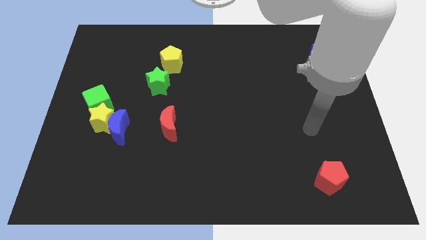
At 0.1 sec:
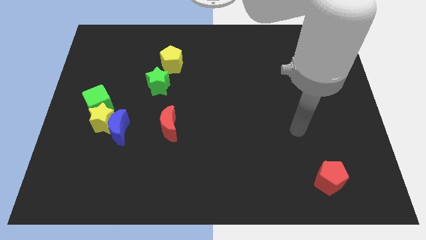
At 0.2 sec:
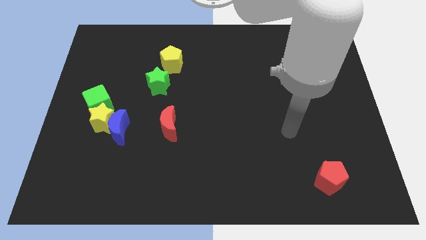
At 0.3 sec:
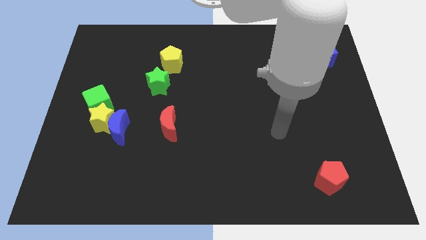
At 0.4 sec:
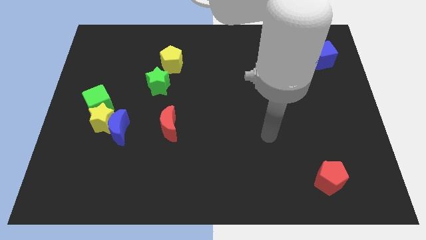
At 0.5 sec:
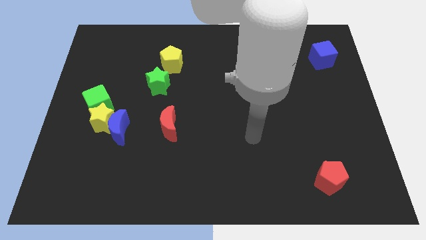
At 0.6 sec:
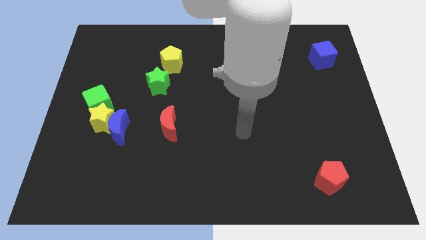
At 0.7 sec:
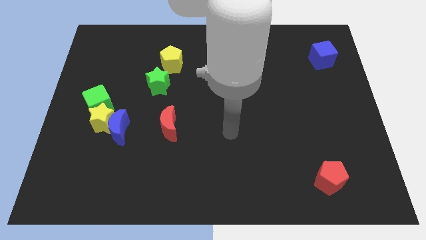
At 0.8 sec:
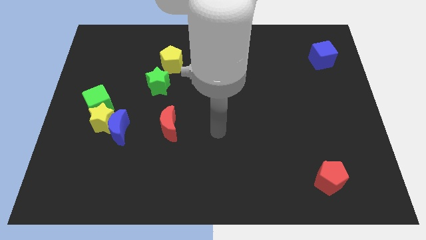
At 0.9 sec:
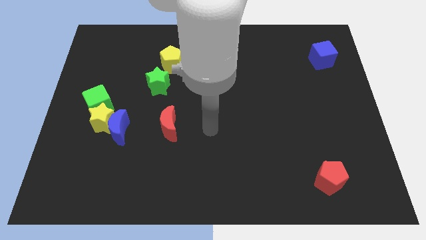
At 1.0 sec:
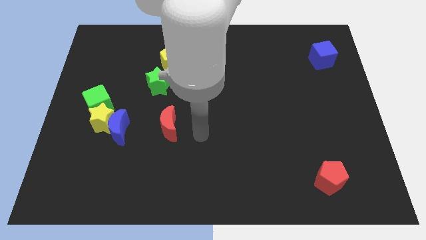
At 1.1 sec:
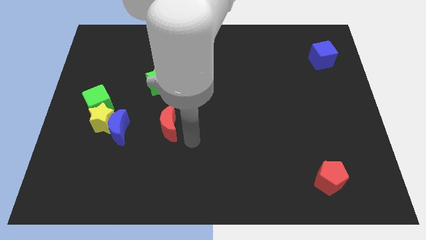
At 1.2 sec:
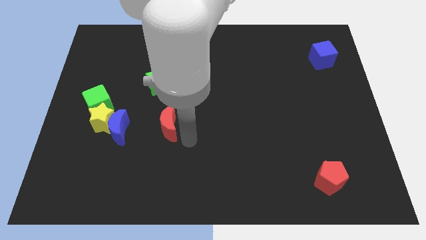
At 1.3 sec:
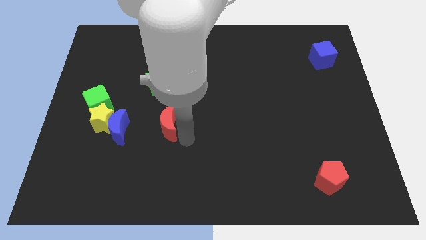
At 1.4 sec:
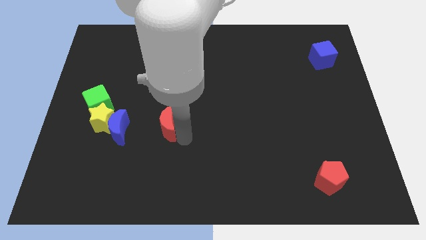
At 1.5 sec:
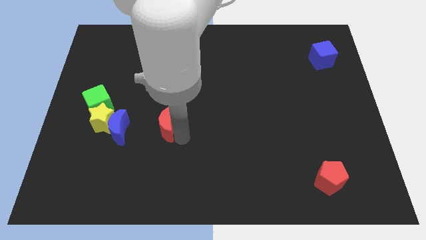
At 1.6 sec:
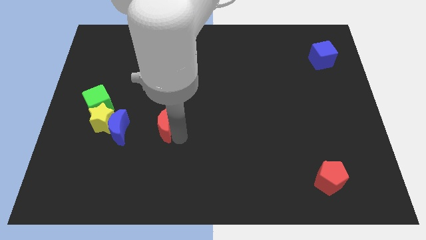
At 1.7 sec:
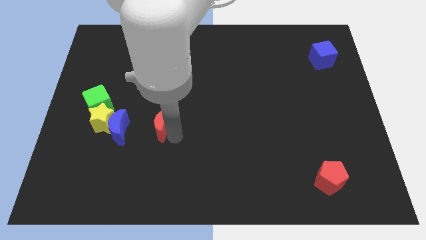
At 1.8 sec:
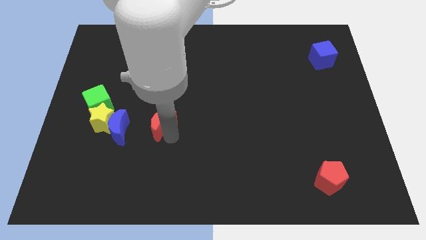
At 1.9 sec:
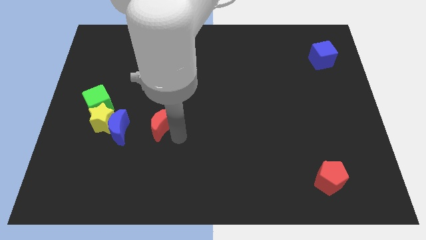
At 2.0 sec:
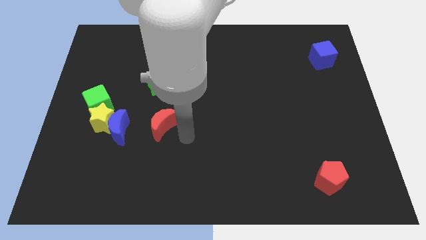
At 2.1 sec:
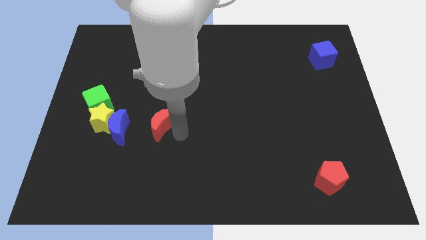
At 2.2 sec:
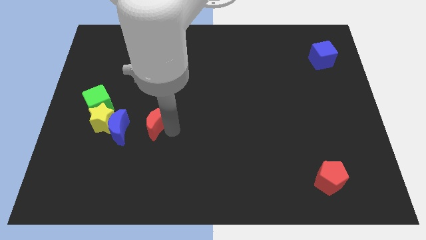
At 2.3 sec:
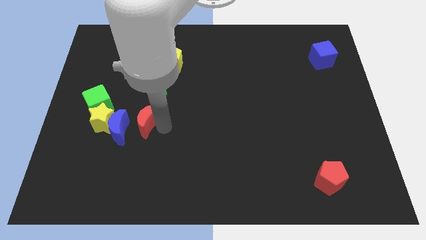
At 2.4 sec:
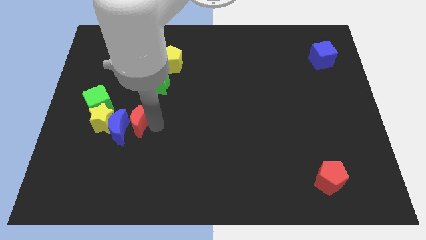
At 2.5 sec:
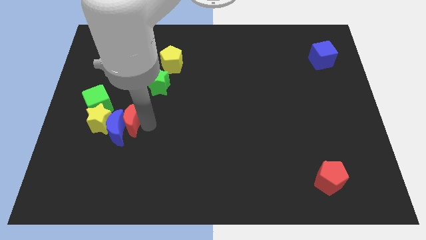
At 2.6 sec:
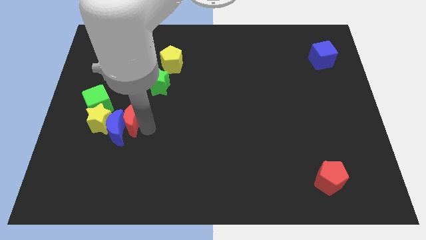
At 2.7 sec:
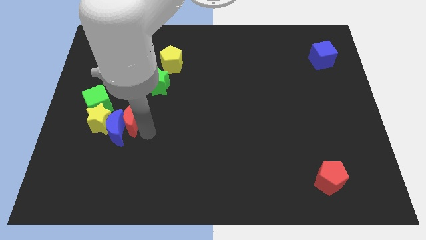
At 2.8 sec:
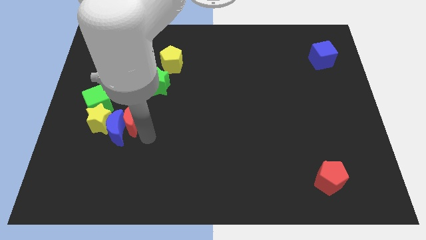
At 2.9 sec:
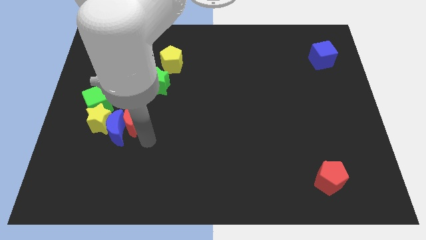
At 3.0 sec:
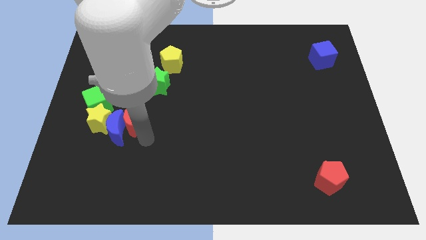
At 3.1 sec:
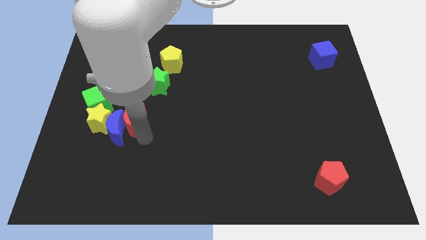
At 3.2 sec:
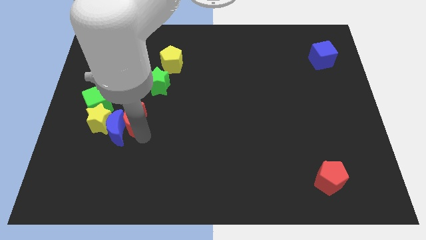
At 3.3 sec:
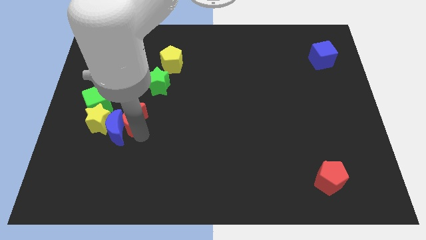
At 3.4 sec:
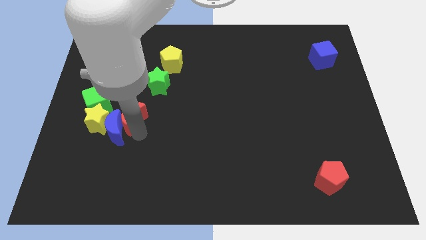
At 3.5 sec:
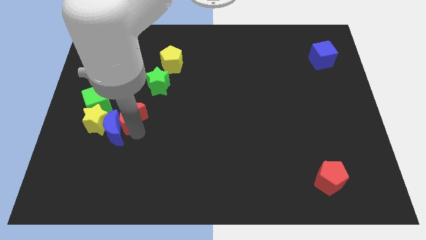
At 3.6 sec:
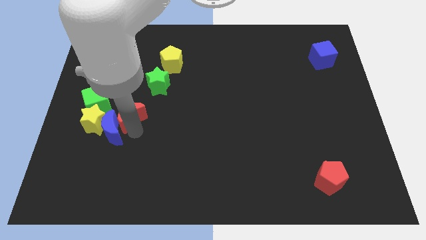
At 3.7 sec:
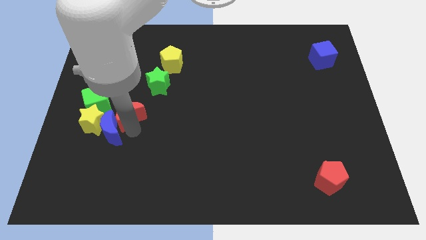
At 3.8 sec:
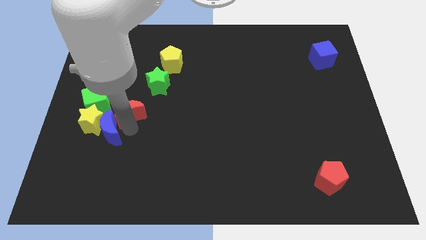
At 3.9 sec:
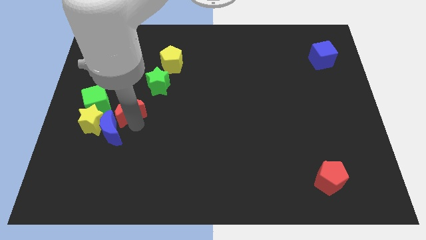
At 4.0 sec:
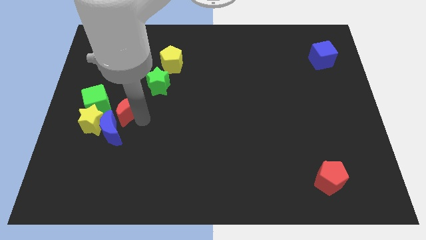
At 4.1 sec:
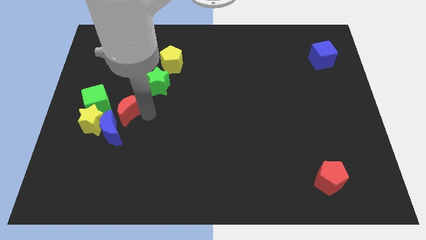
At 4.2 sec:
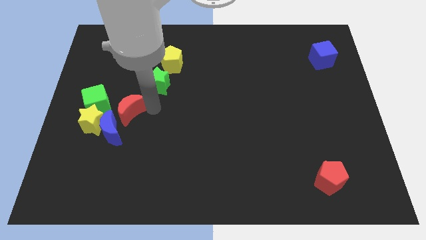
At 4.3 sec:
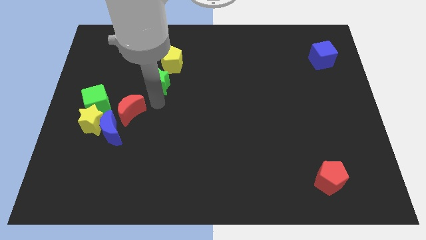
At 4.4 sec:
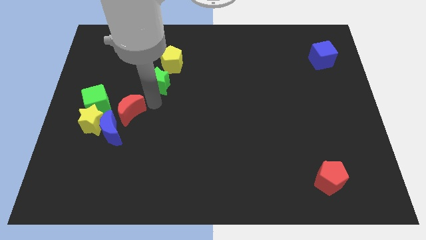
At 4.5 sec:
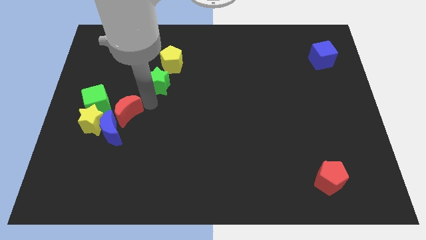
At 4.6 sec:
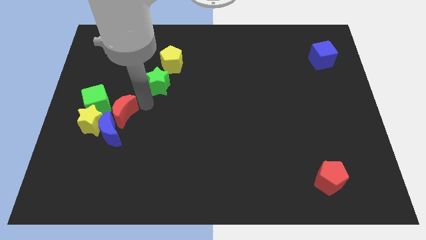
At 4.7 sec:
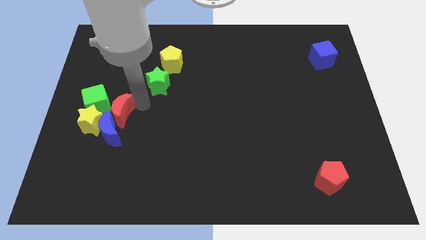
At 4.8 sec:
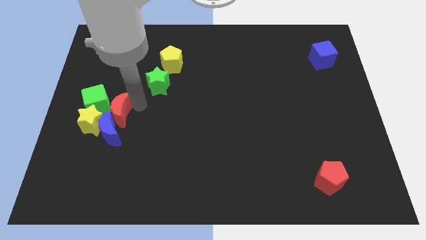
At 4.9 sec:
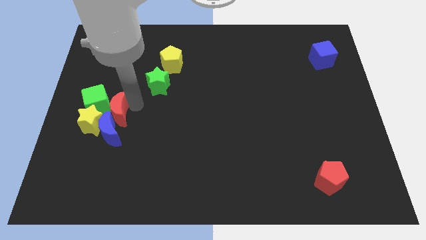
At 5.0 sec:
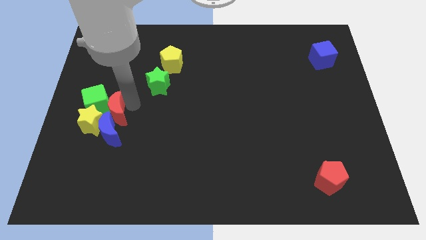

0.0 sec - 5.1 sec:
slide the red moon next to the yellow star

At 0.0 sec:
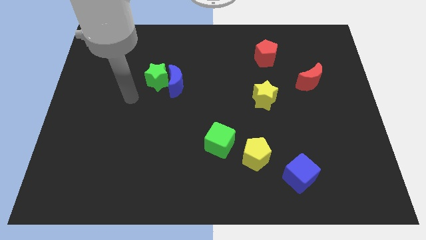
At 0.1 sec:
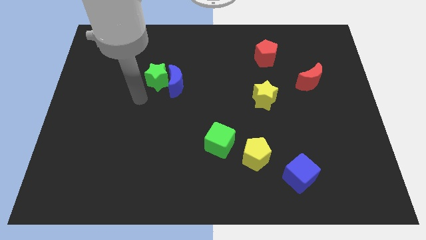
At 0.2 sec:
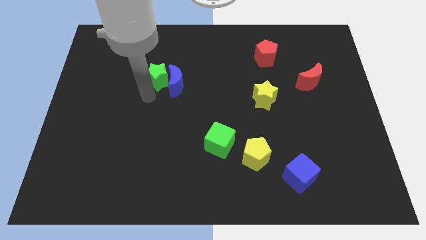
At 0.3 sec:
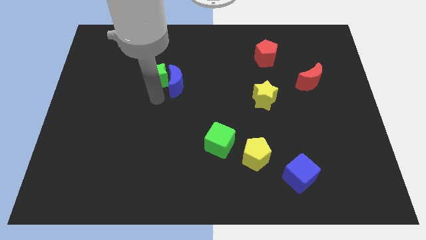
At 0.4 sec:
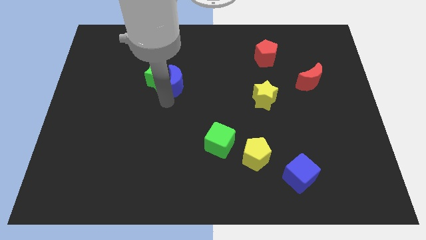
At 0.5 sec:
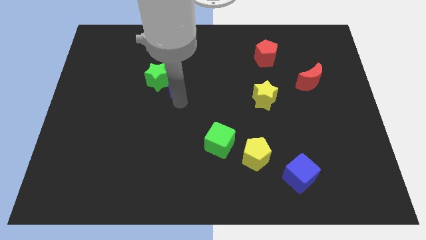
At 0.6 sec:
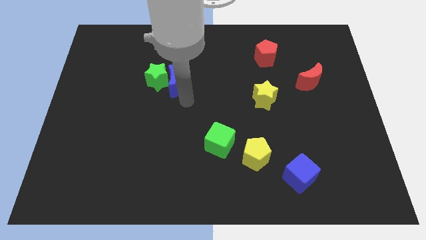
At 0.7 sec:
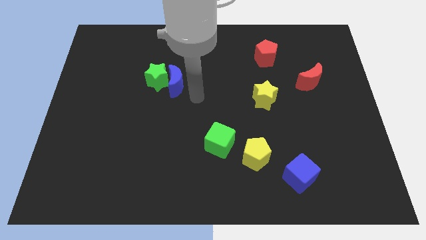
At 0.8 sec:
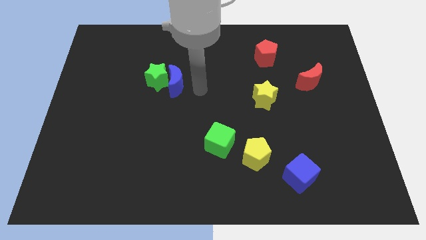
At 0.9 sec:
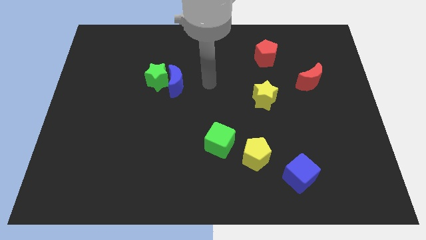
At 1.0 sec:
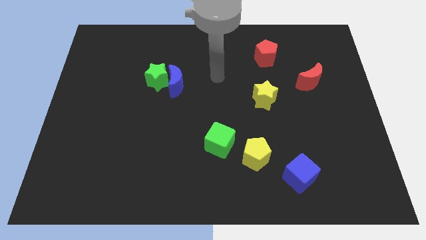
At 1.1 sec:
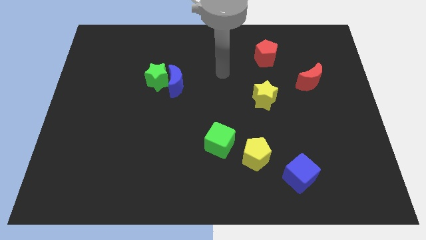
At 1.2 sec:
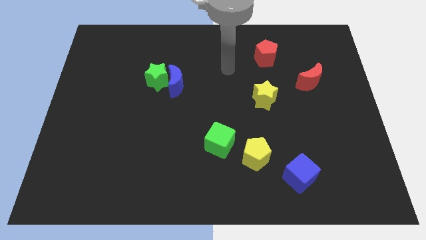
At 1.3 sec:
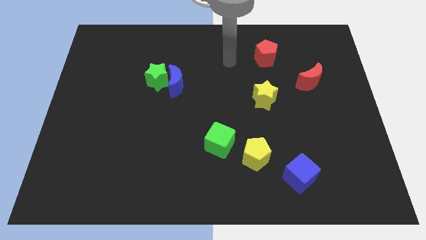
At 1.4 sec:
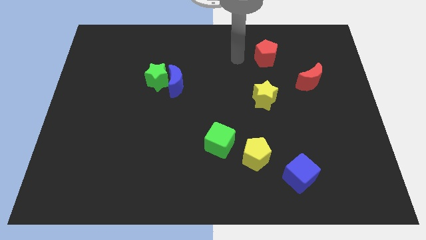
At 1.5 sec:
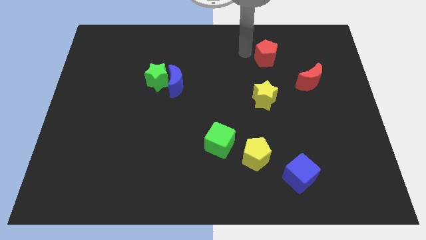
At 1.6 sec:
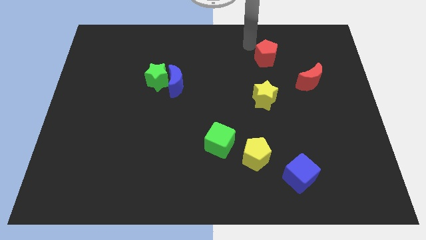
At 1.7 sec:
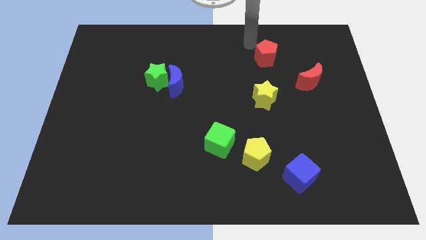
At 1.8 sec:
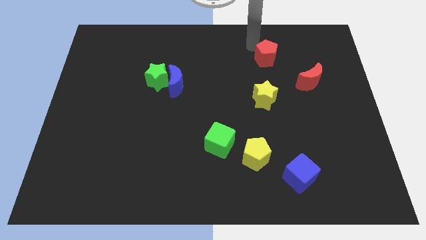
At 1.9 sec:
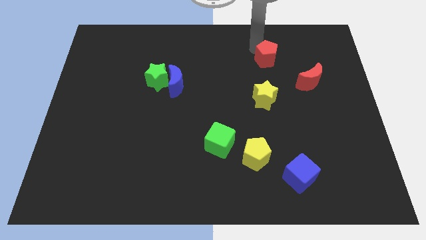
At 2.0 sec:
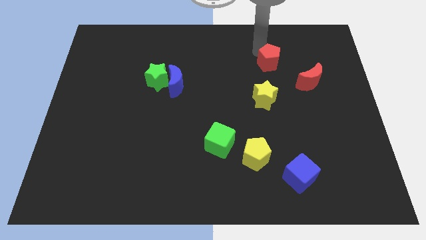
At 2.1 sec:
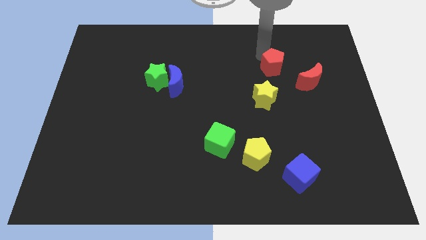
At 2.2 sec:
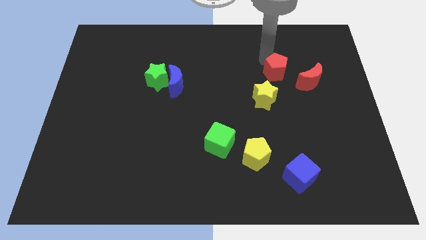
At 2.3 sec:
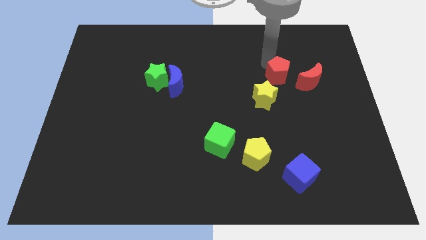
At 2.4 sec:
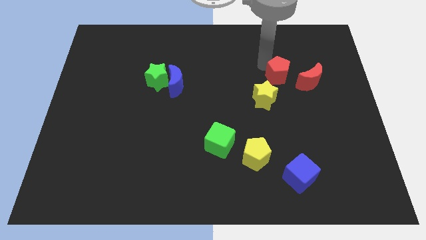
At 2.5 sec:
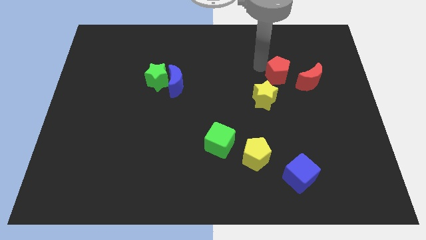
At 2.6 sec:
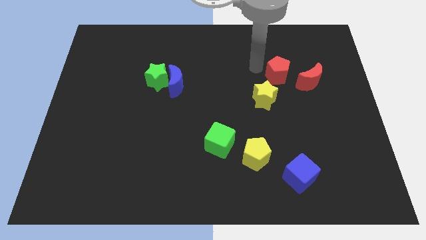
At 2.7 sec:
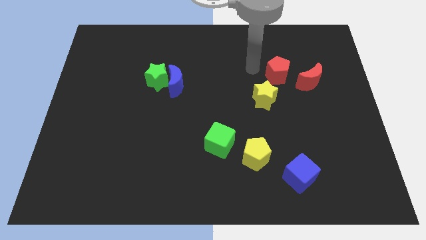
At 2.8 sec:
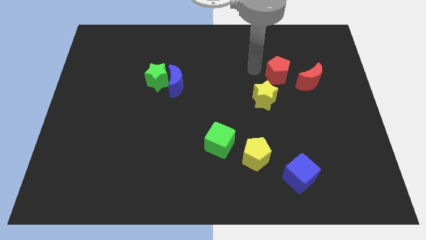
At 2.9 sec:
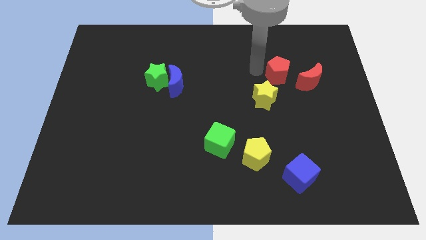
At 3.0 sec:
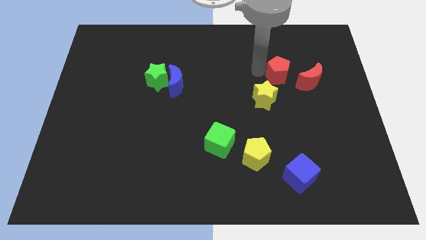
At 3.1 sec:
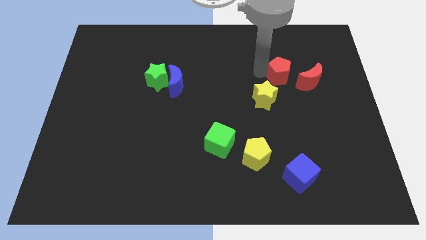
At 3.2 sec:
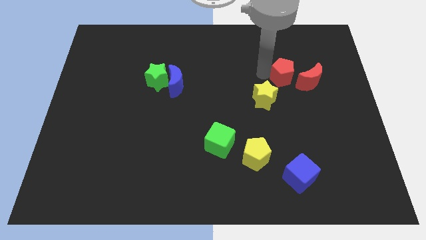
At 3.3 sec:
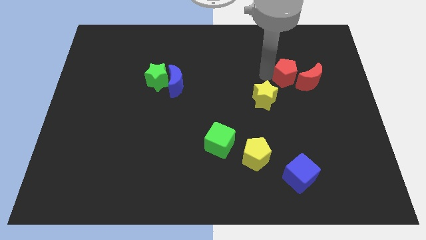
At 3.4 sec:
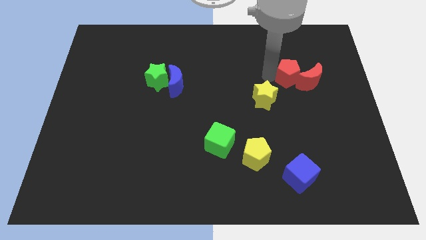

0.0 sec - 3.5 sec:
move the red pentagon close to the red moon
